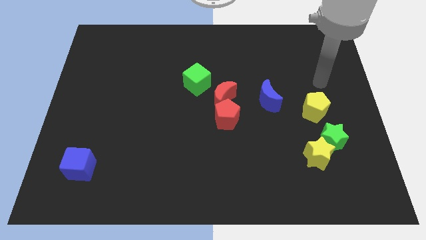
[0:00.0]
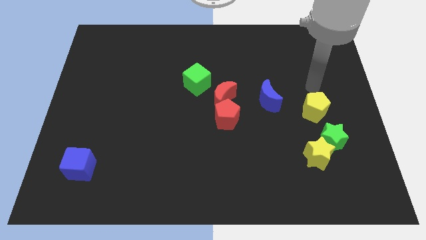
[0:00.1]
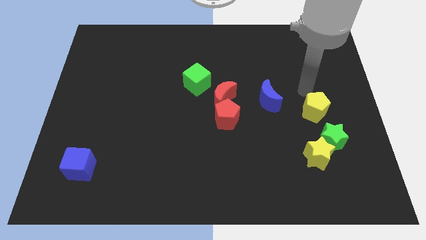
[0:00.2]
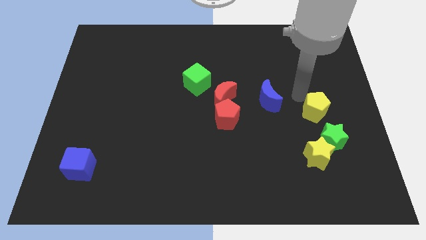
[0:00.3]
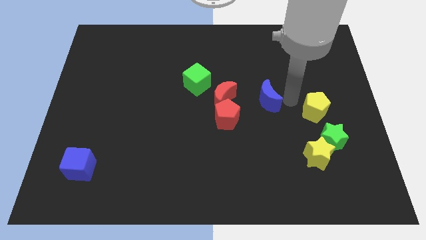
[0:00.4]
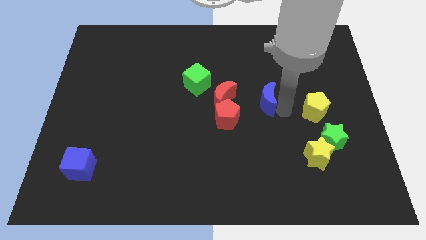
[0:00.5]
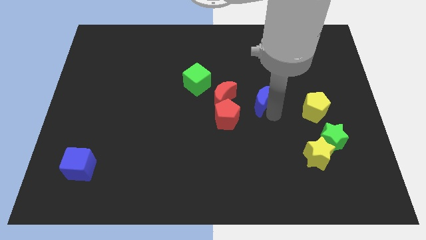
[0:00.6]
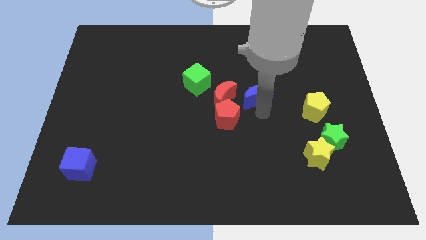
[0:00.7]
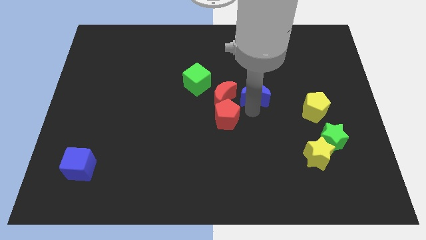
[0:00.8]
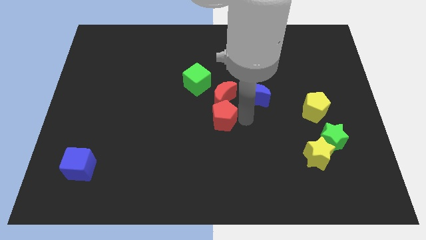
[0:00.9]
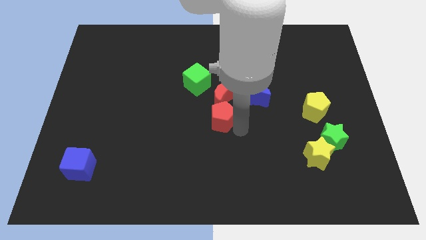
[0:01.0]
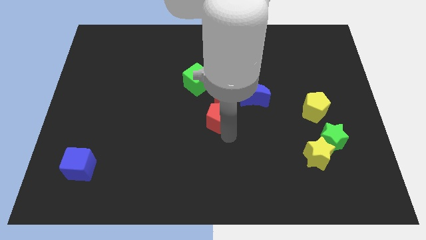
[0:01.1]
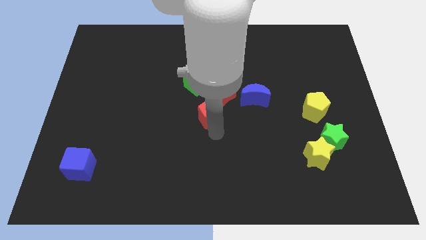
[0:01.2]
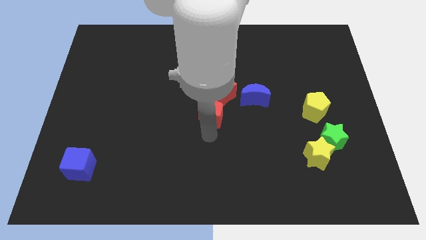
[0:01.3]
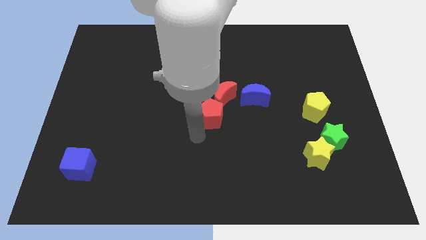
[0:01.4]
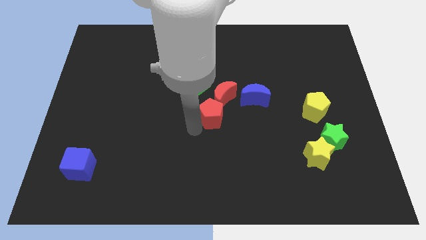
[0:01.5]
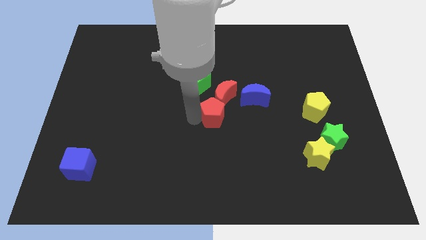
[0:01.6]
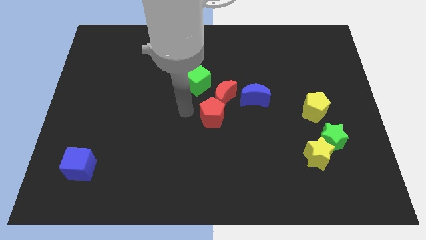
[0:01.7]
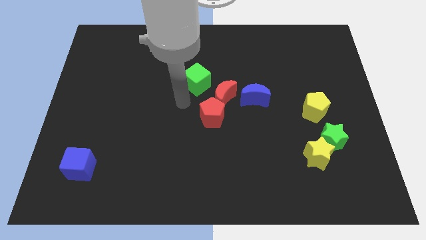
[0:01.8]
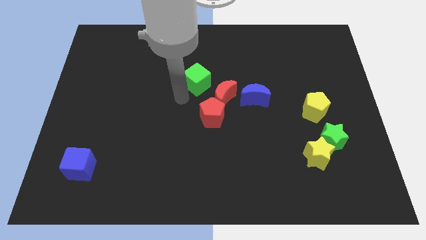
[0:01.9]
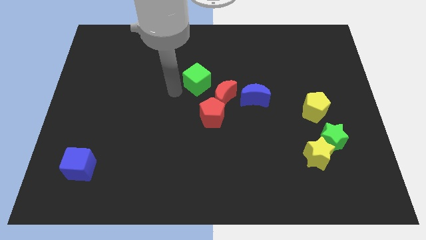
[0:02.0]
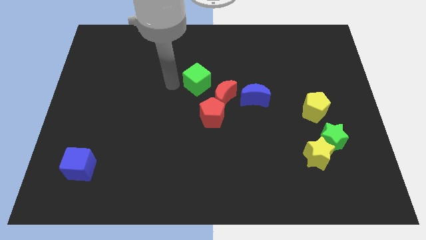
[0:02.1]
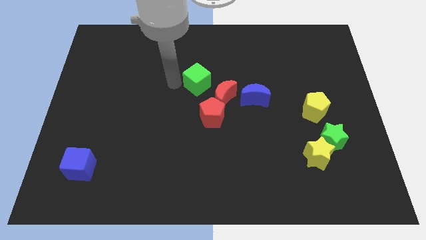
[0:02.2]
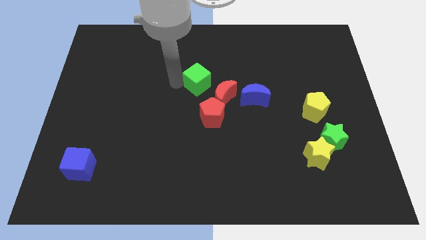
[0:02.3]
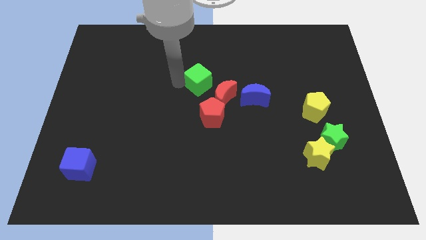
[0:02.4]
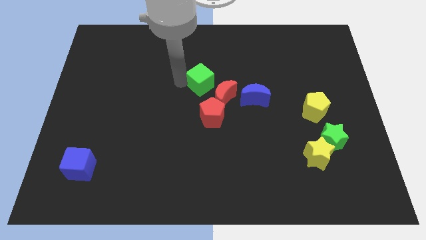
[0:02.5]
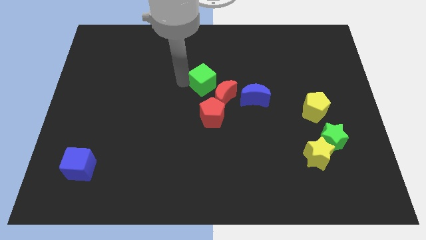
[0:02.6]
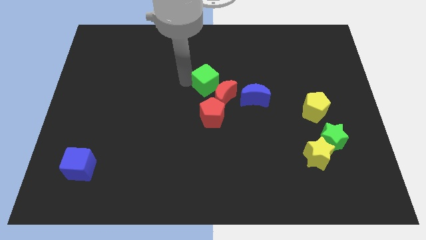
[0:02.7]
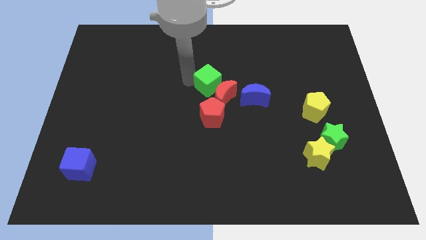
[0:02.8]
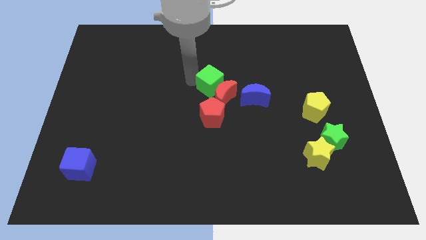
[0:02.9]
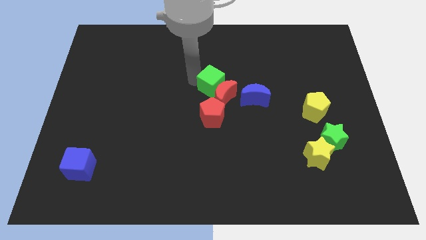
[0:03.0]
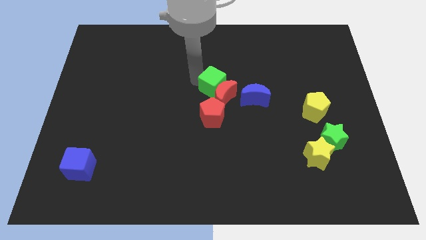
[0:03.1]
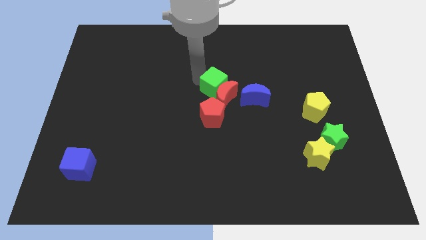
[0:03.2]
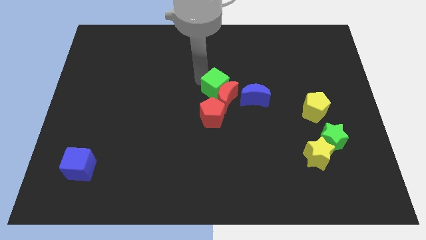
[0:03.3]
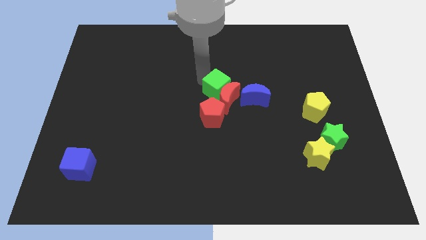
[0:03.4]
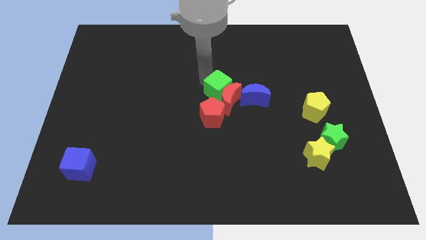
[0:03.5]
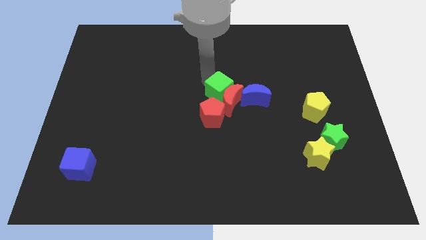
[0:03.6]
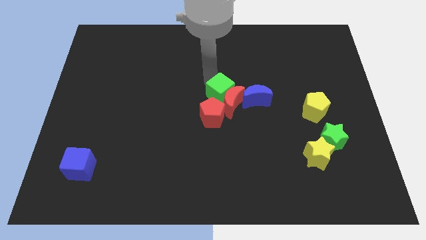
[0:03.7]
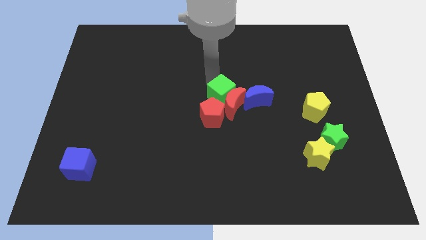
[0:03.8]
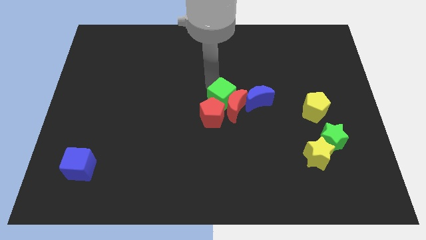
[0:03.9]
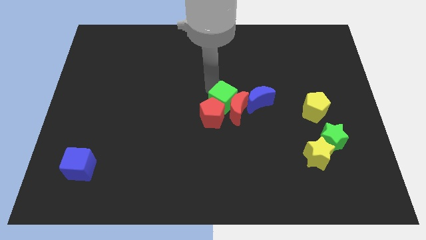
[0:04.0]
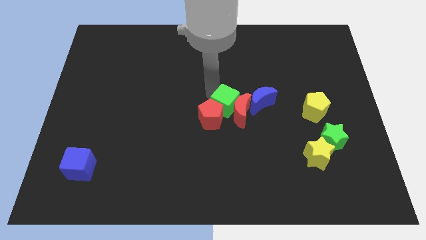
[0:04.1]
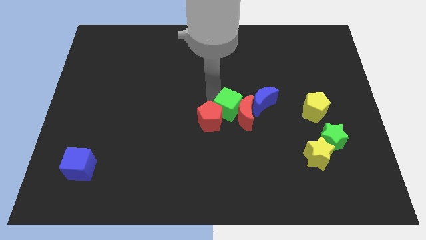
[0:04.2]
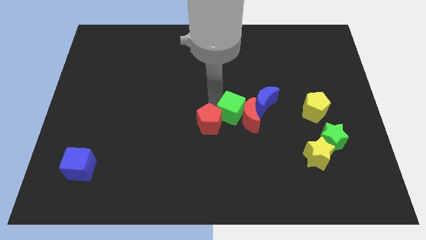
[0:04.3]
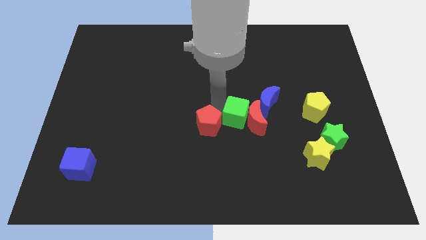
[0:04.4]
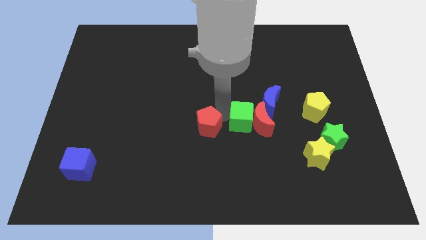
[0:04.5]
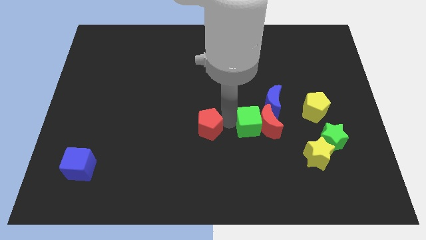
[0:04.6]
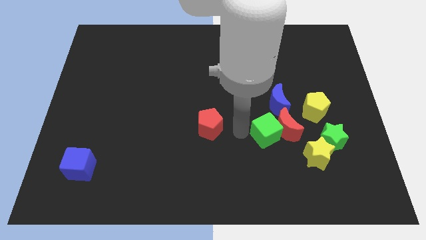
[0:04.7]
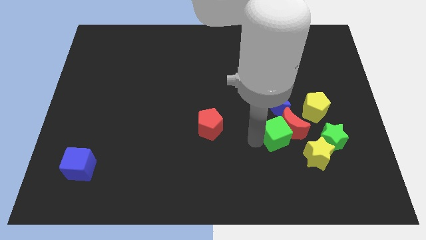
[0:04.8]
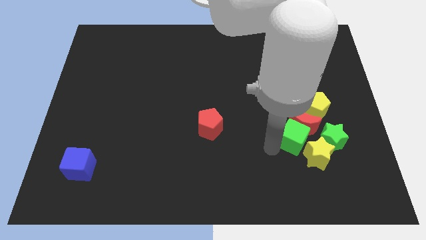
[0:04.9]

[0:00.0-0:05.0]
slide the green cube next to the yellow star

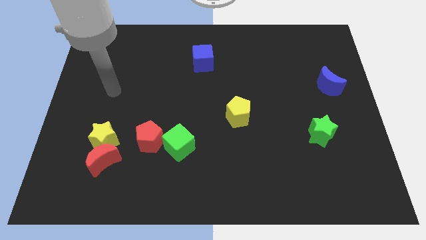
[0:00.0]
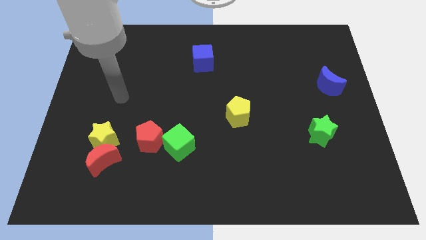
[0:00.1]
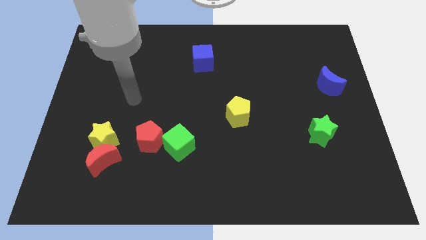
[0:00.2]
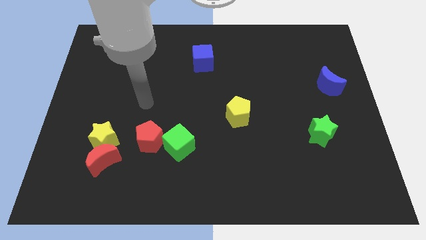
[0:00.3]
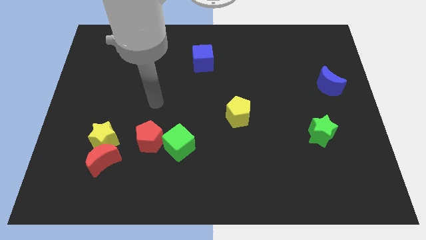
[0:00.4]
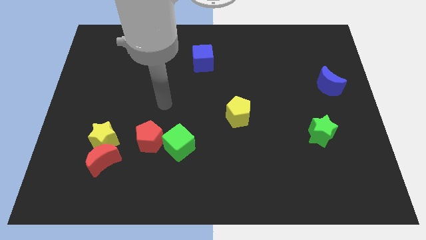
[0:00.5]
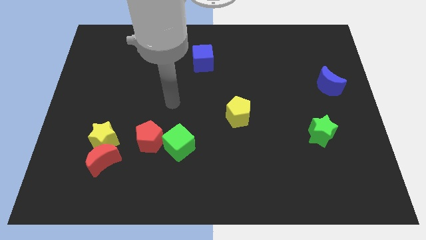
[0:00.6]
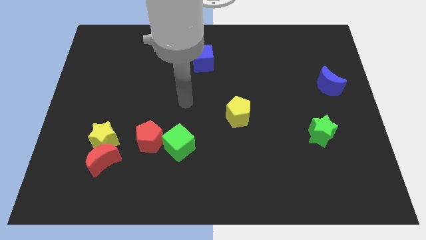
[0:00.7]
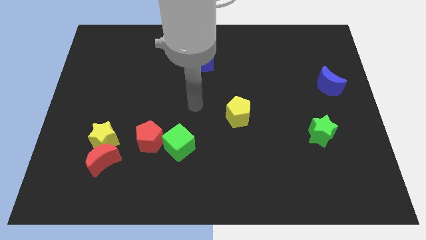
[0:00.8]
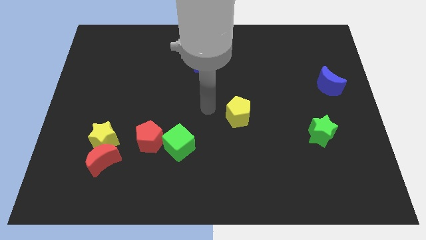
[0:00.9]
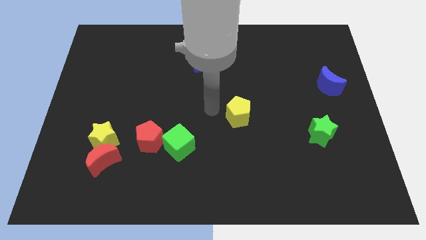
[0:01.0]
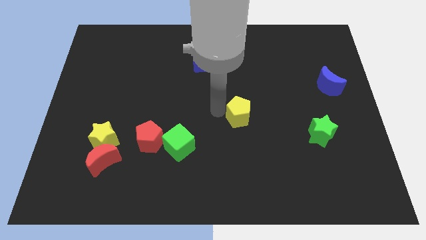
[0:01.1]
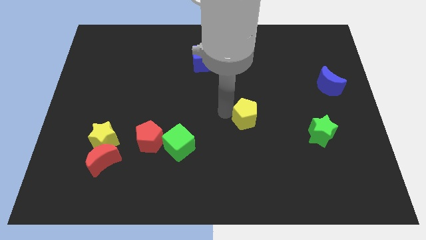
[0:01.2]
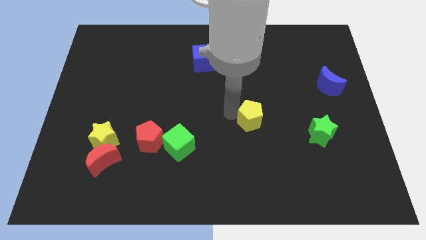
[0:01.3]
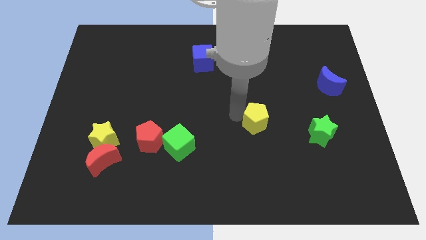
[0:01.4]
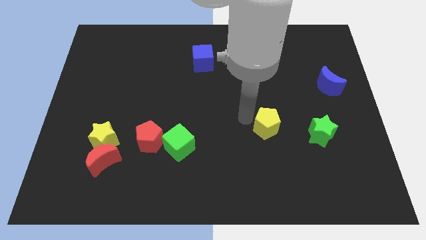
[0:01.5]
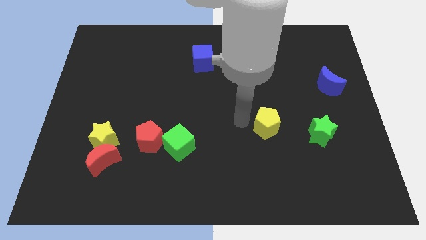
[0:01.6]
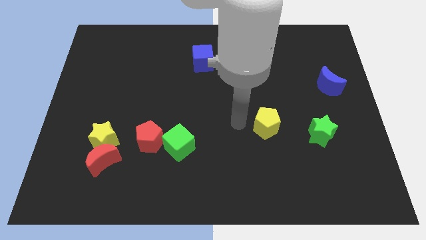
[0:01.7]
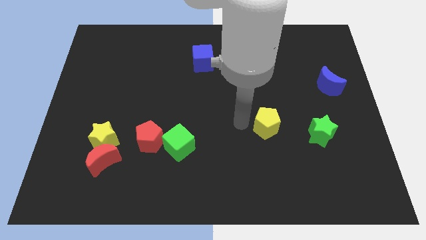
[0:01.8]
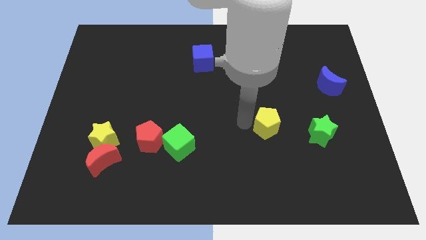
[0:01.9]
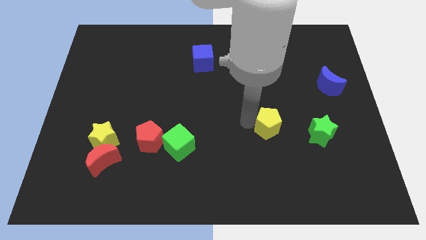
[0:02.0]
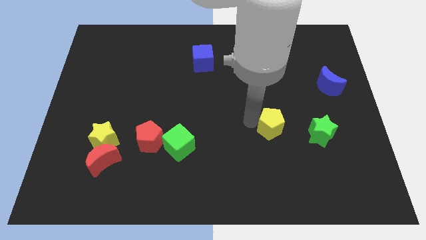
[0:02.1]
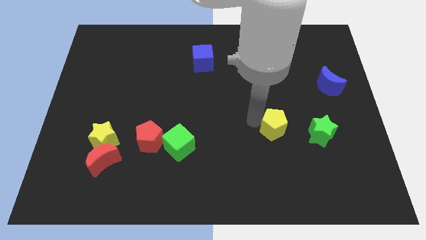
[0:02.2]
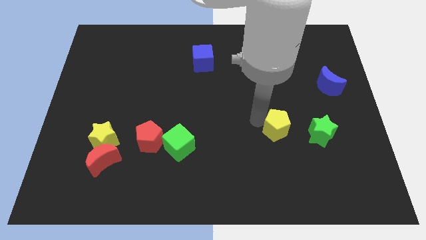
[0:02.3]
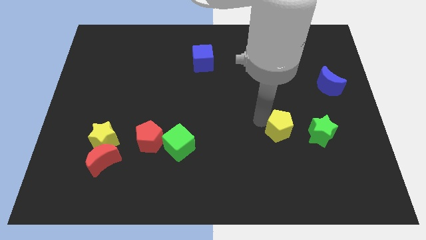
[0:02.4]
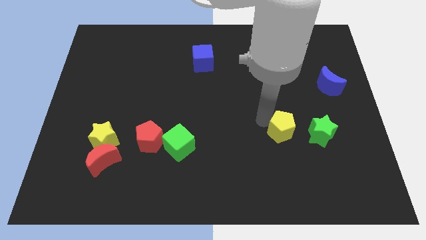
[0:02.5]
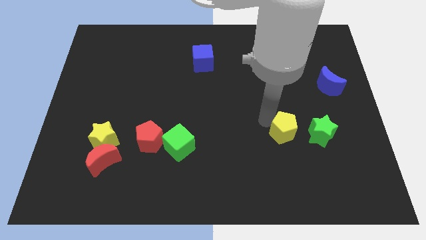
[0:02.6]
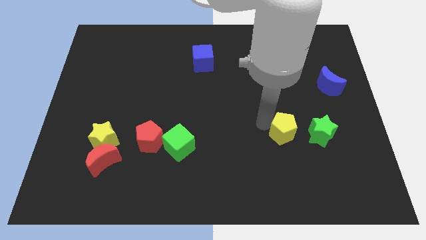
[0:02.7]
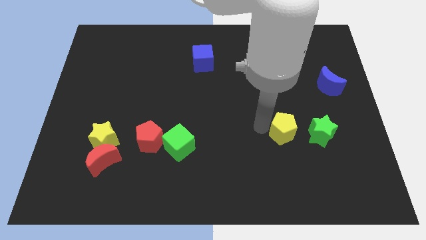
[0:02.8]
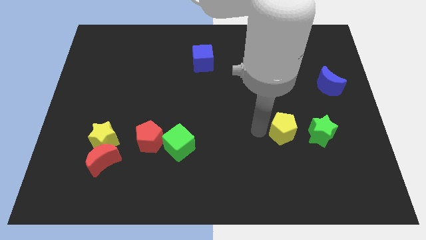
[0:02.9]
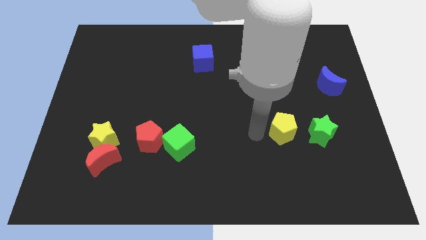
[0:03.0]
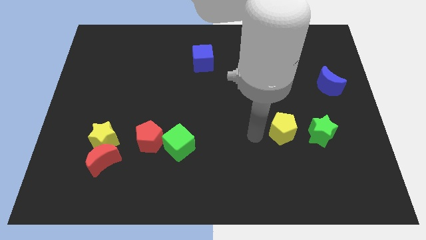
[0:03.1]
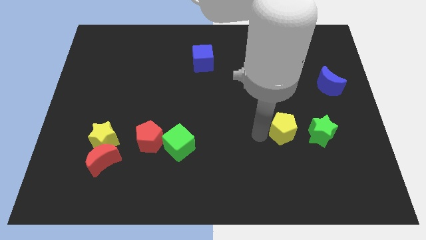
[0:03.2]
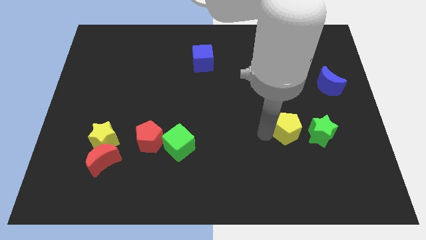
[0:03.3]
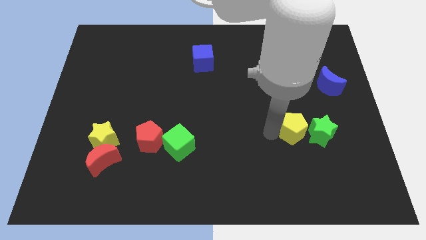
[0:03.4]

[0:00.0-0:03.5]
slide the yellow pentagon close to the green star
